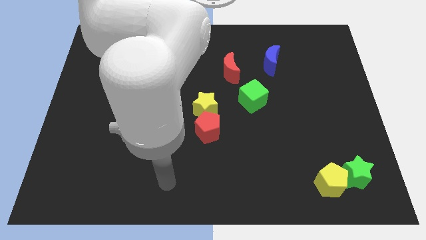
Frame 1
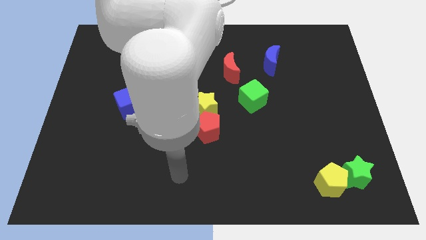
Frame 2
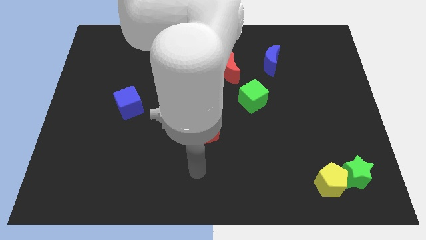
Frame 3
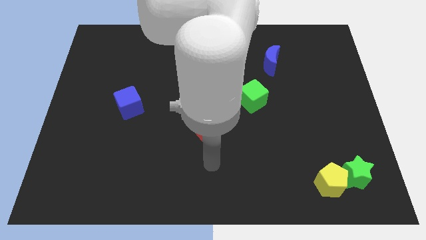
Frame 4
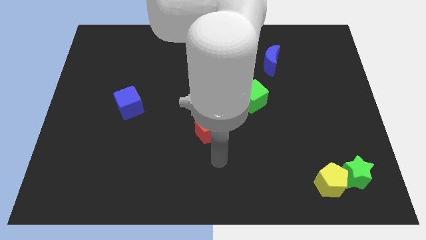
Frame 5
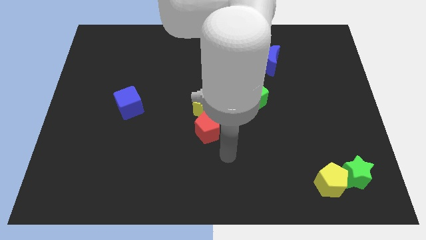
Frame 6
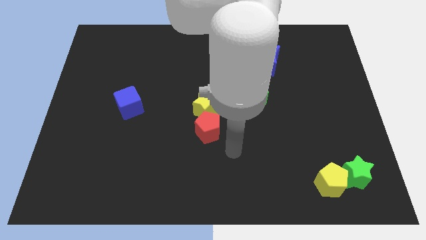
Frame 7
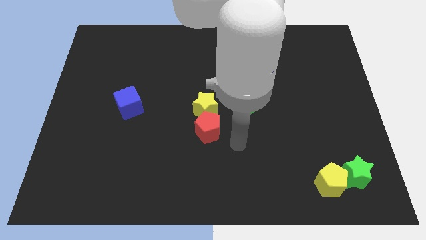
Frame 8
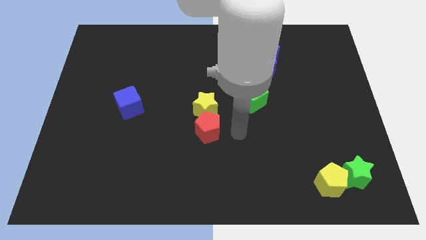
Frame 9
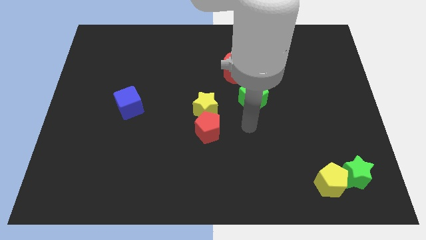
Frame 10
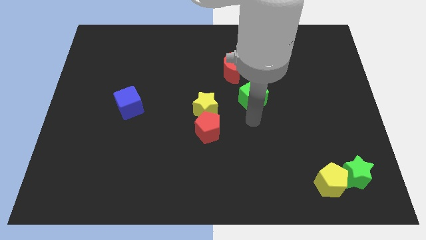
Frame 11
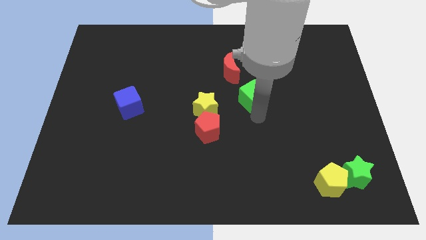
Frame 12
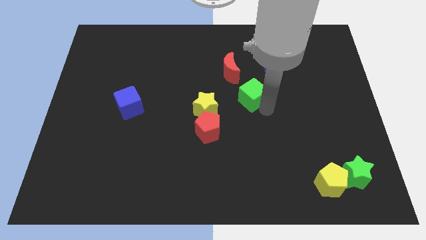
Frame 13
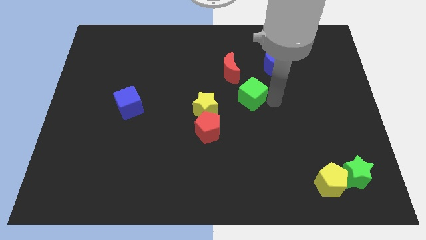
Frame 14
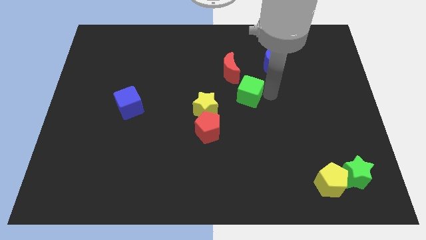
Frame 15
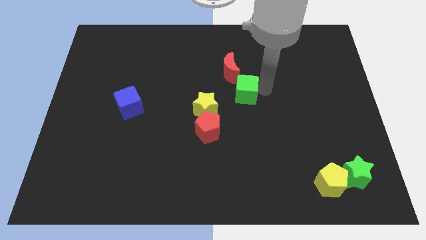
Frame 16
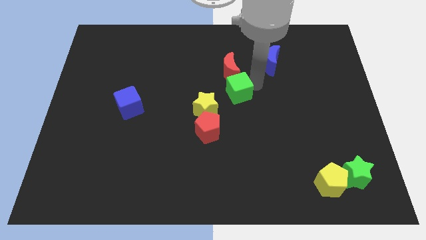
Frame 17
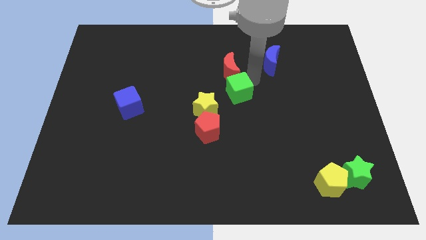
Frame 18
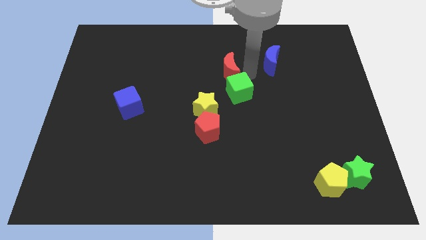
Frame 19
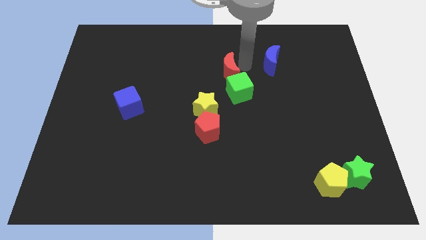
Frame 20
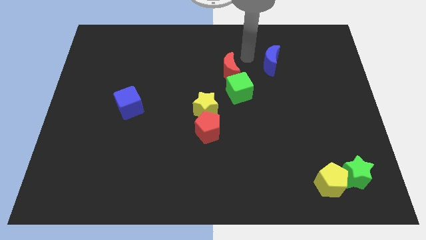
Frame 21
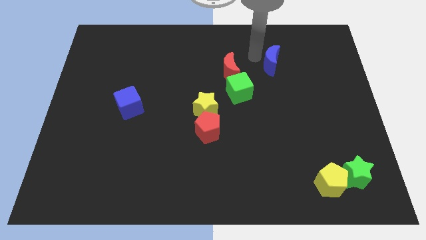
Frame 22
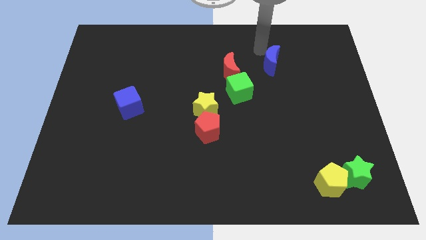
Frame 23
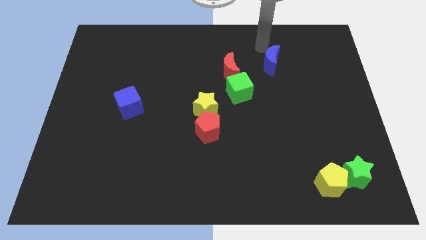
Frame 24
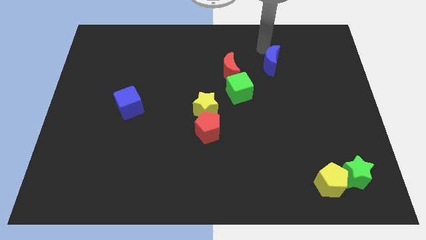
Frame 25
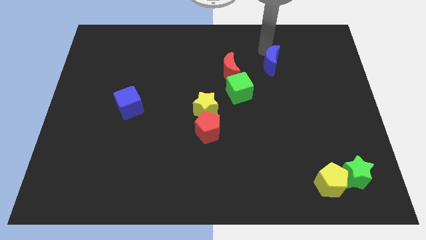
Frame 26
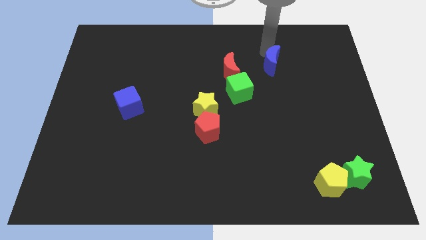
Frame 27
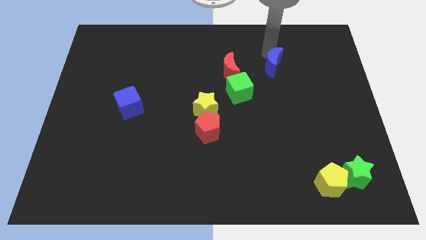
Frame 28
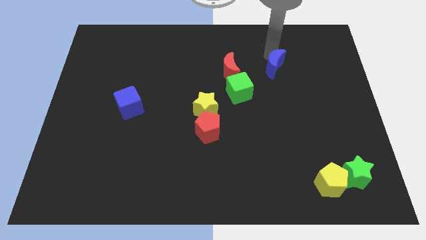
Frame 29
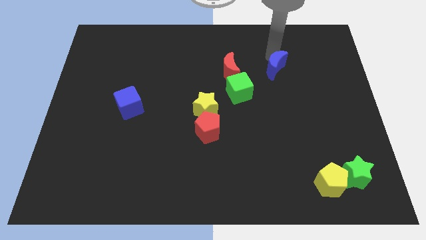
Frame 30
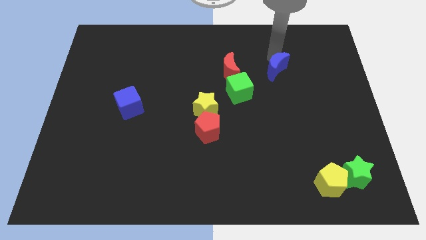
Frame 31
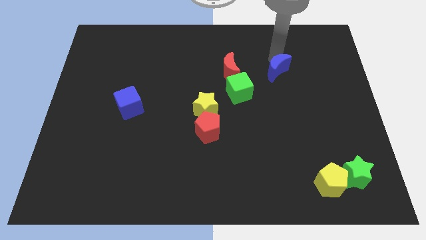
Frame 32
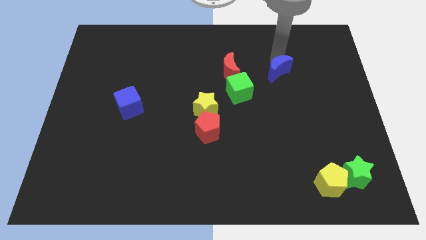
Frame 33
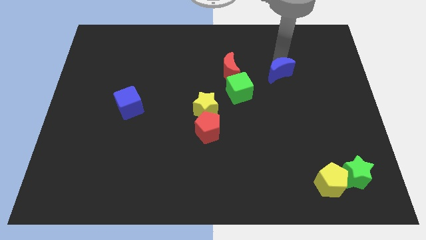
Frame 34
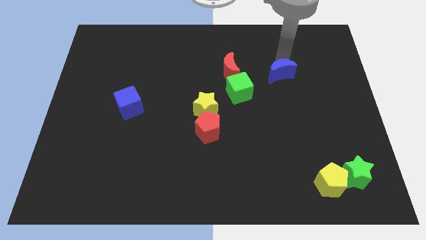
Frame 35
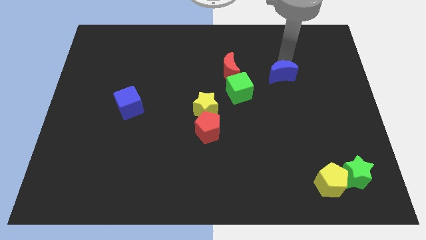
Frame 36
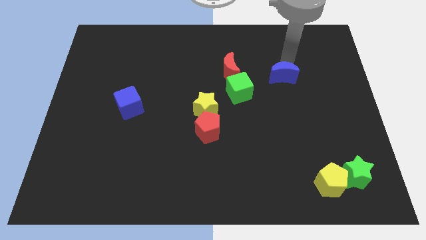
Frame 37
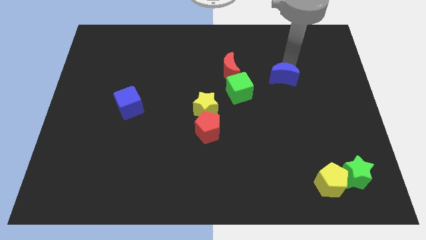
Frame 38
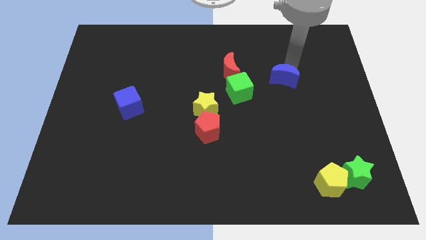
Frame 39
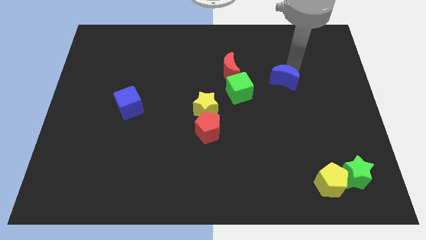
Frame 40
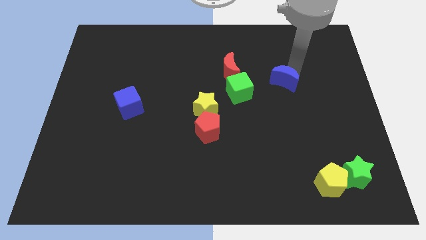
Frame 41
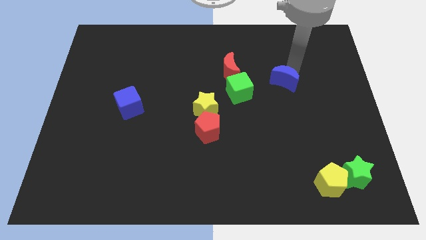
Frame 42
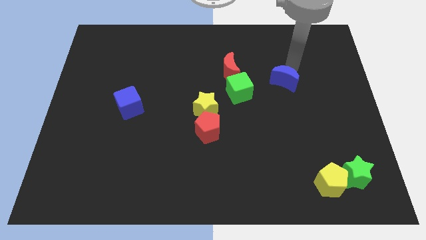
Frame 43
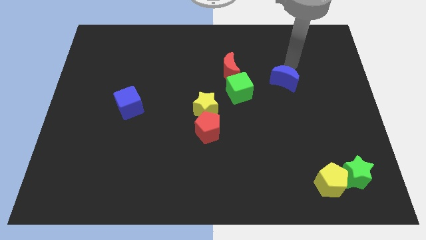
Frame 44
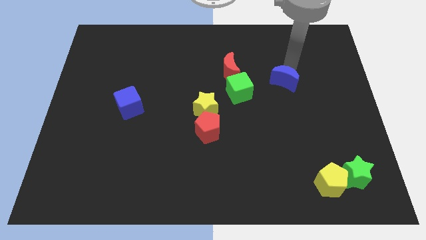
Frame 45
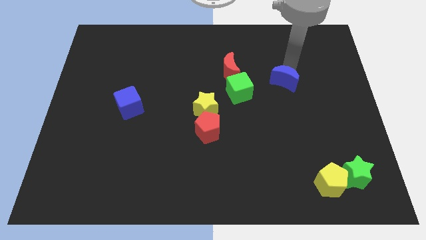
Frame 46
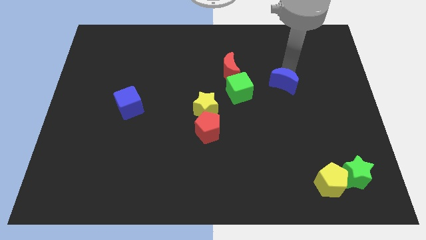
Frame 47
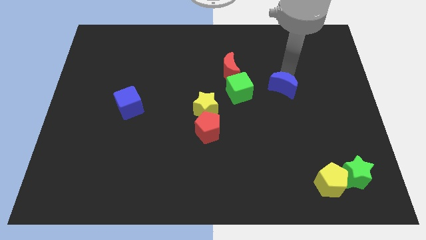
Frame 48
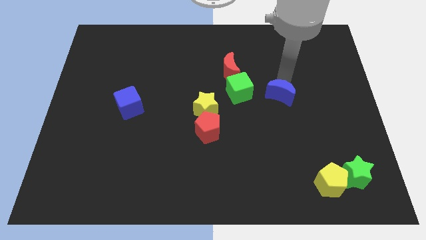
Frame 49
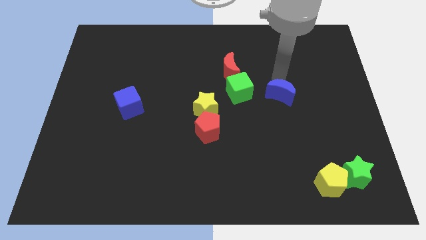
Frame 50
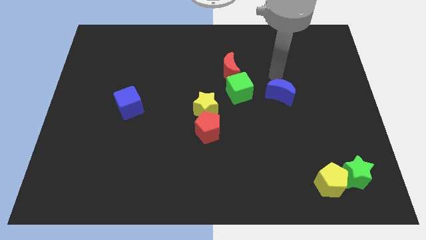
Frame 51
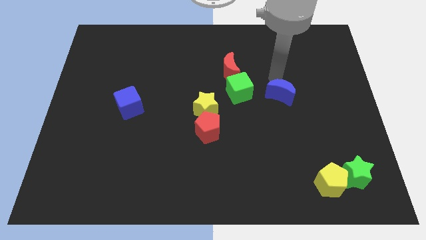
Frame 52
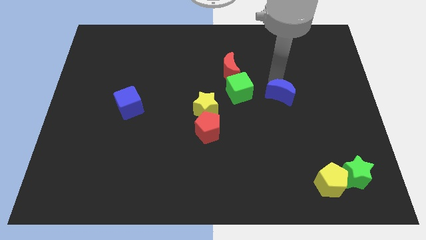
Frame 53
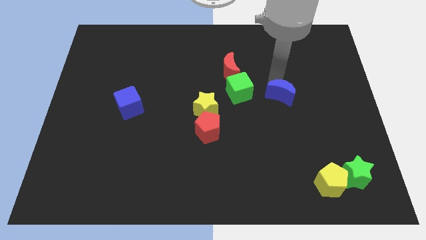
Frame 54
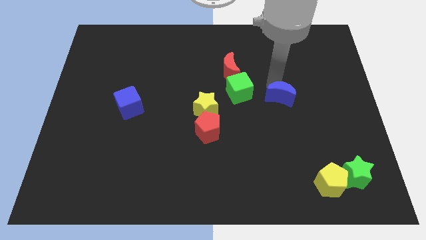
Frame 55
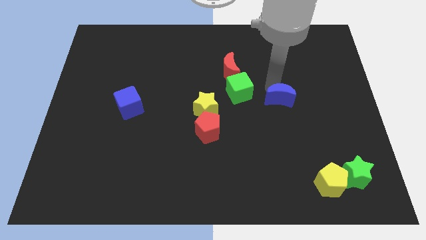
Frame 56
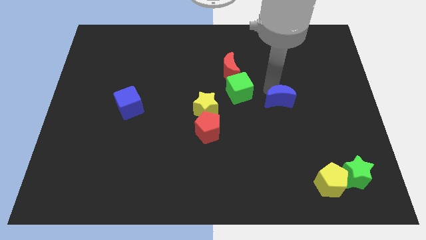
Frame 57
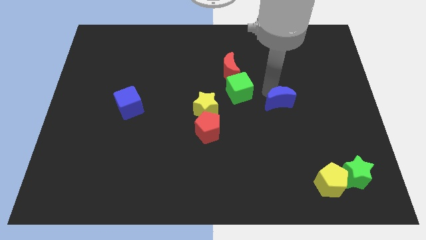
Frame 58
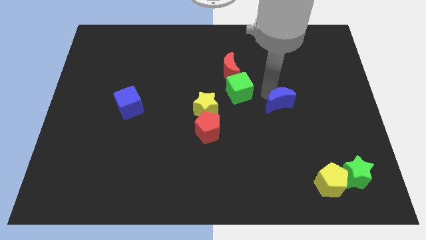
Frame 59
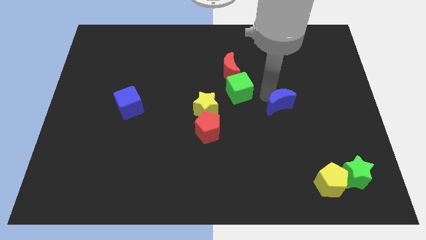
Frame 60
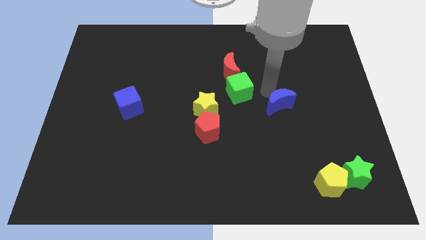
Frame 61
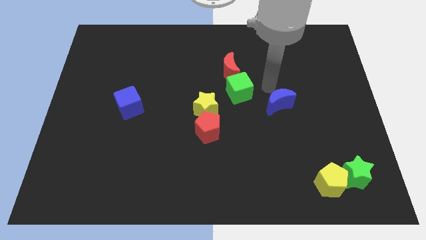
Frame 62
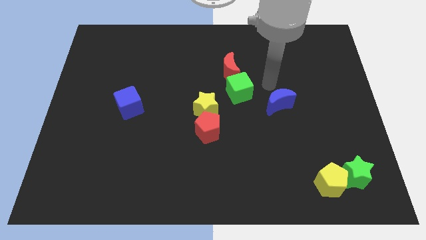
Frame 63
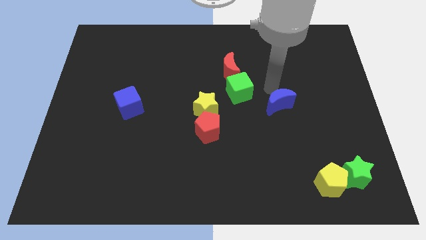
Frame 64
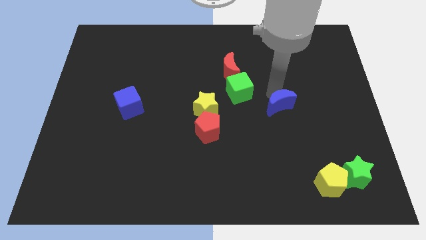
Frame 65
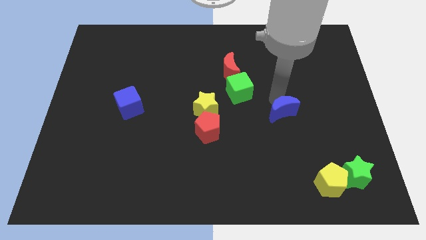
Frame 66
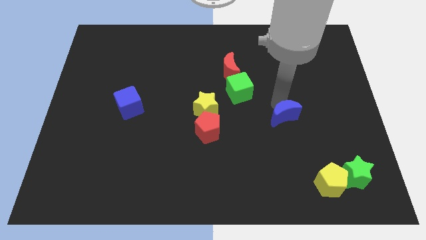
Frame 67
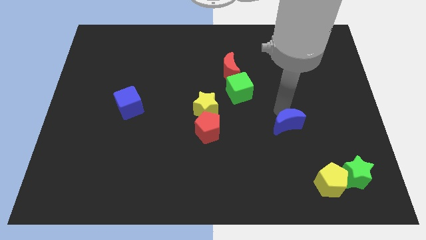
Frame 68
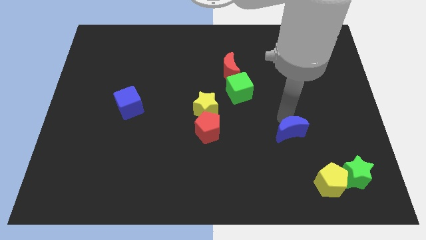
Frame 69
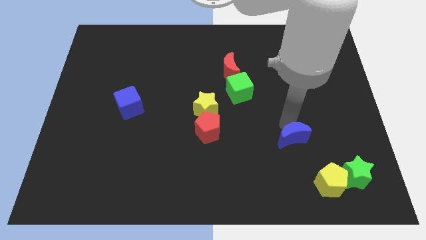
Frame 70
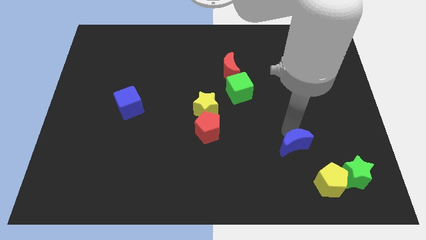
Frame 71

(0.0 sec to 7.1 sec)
push the blue moon to the top left of the yellow pentagon

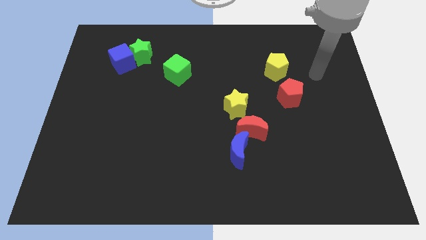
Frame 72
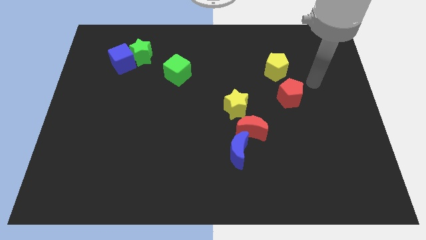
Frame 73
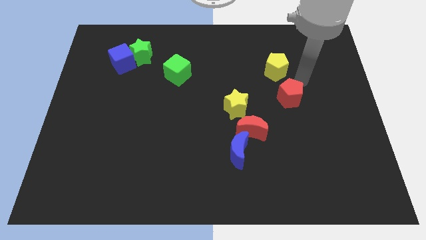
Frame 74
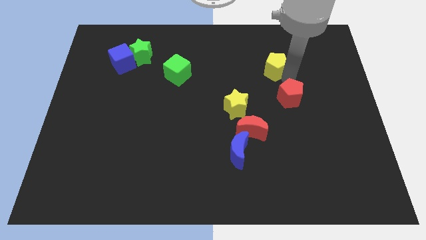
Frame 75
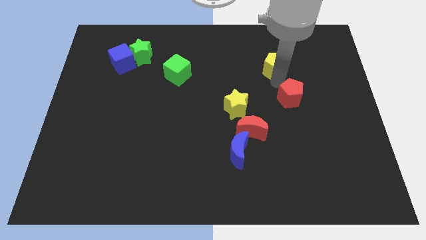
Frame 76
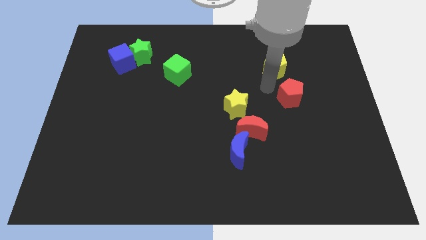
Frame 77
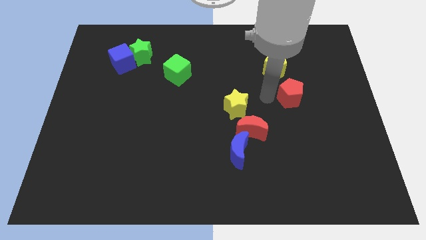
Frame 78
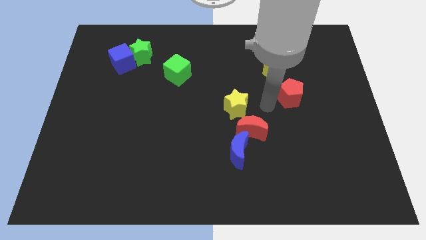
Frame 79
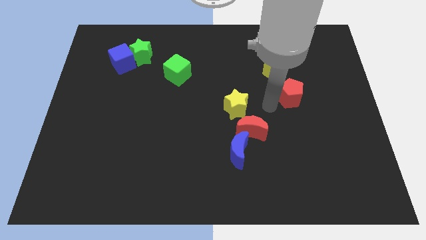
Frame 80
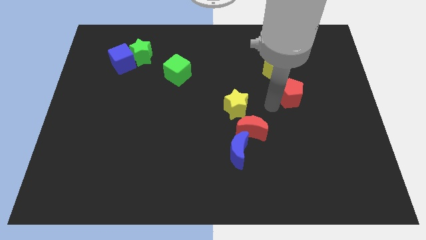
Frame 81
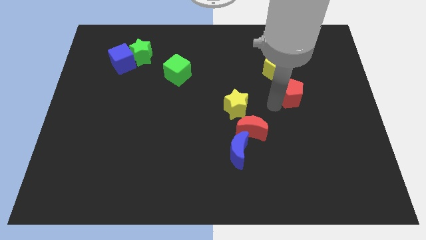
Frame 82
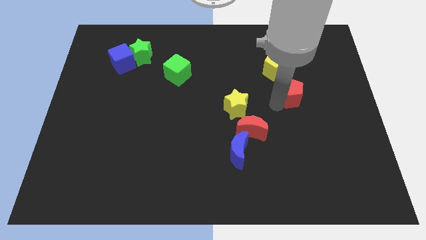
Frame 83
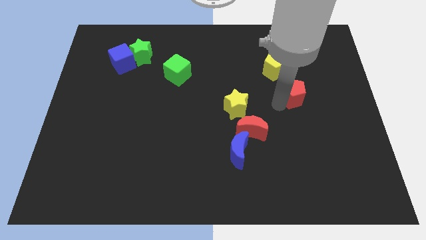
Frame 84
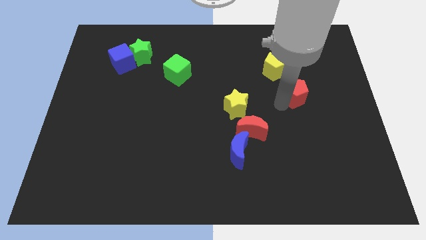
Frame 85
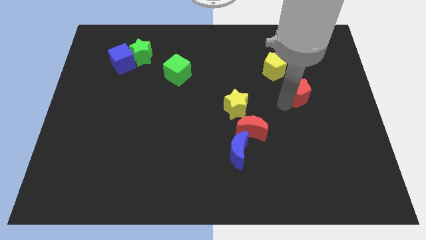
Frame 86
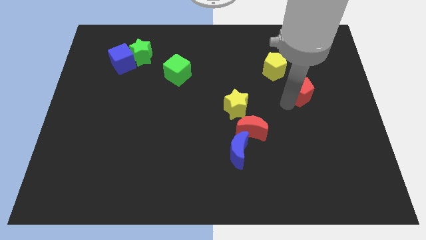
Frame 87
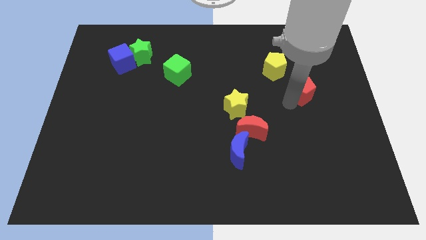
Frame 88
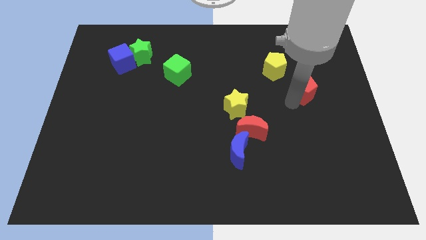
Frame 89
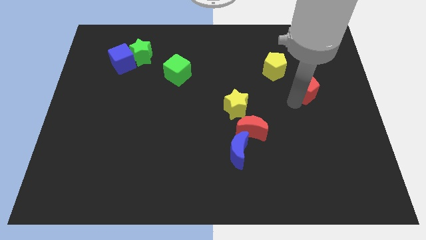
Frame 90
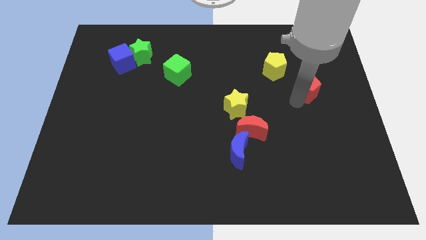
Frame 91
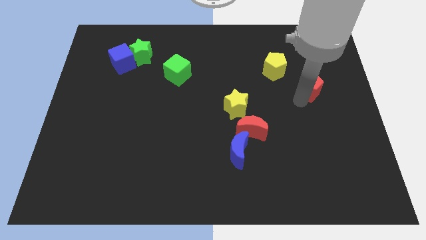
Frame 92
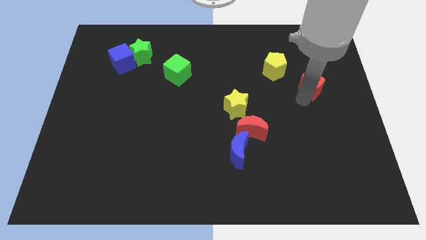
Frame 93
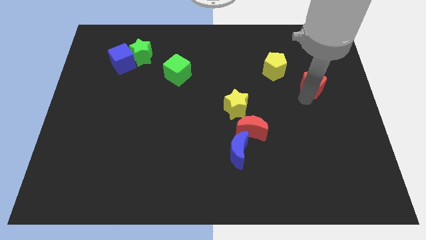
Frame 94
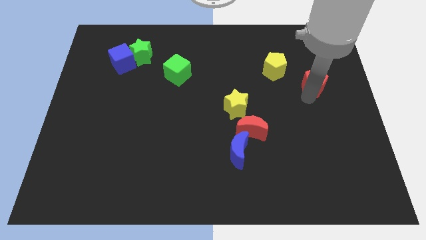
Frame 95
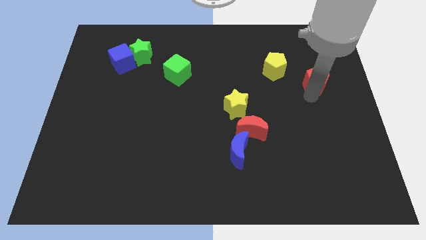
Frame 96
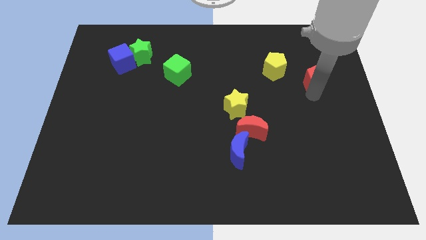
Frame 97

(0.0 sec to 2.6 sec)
put the red pentagon just right of the yellow pentagon
